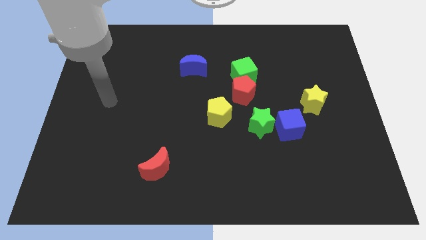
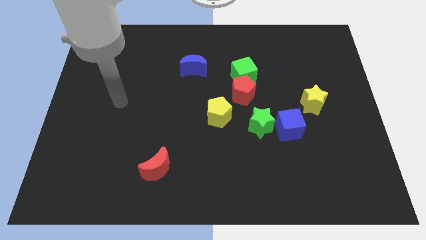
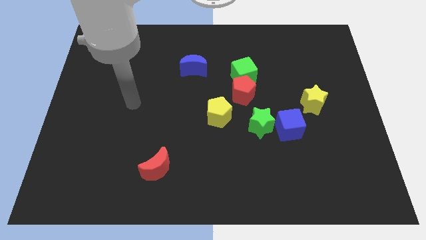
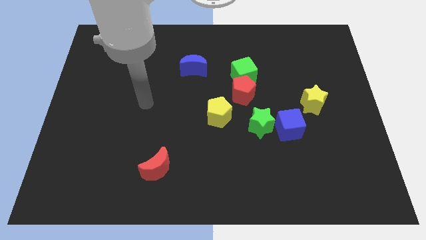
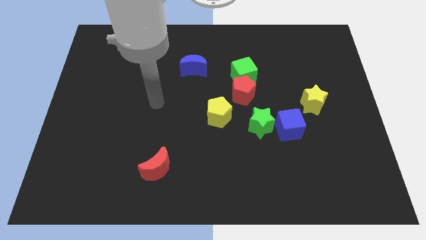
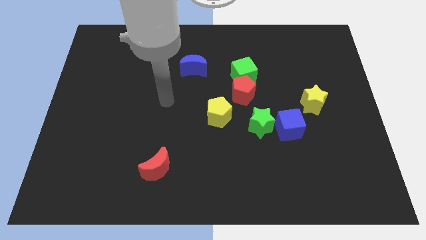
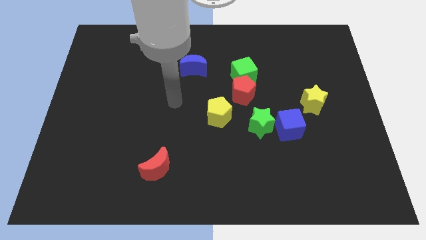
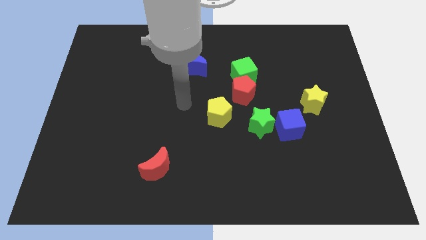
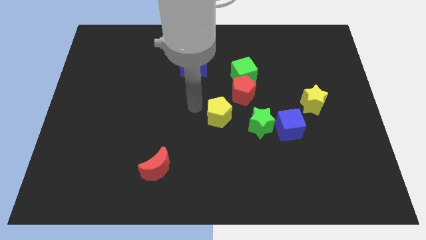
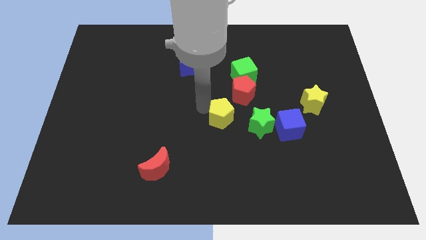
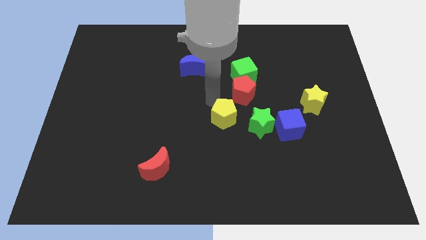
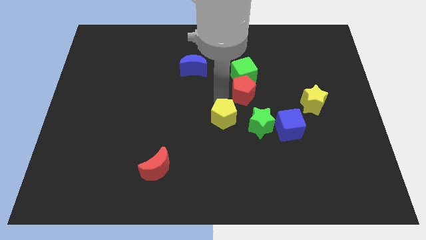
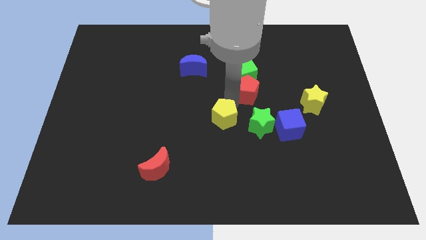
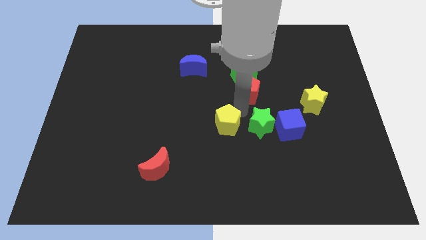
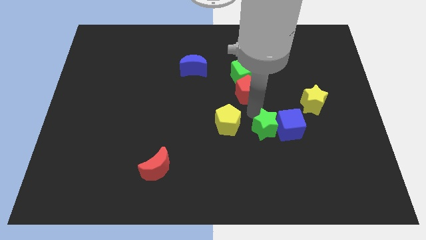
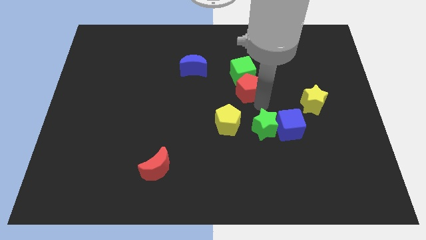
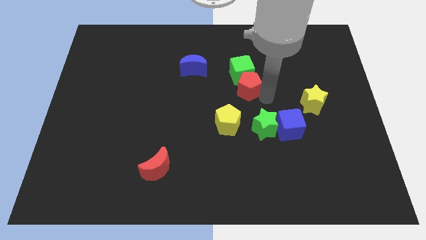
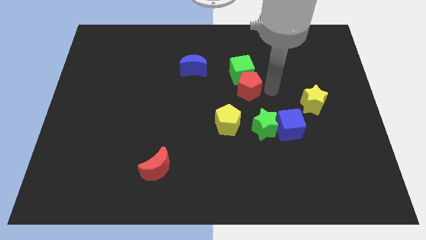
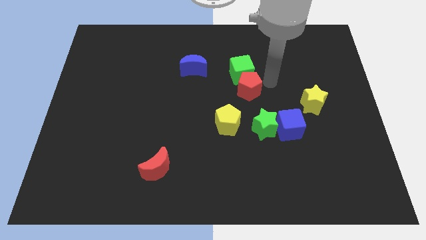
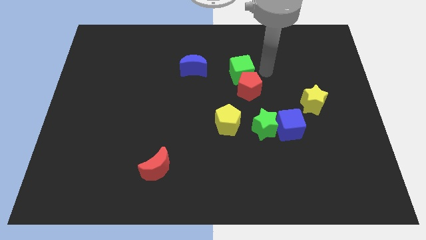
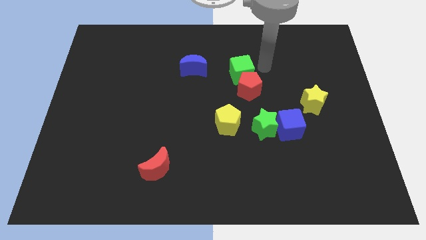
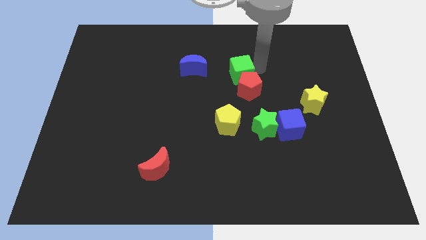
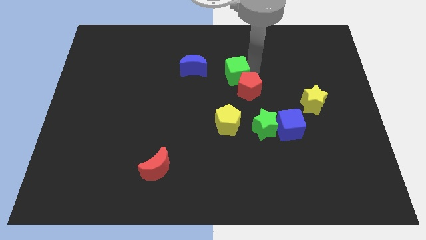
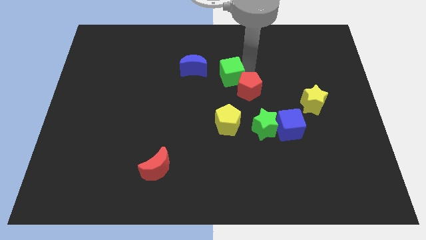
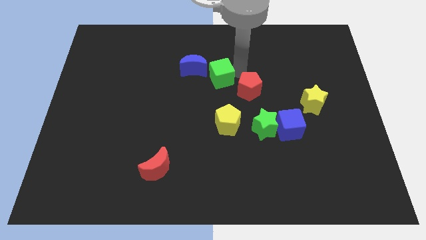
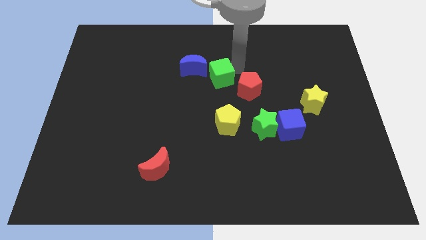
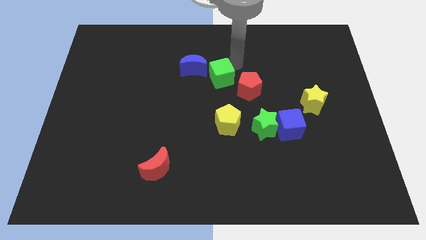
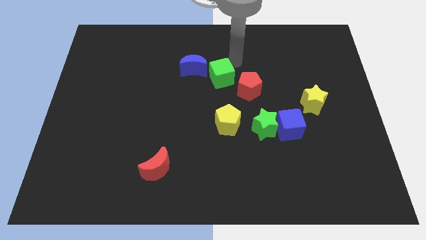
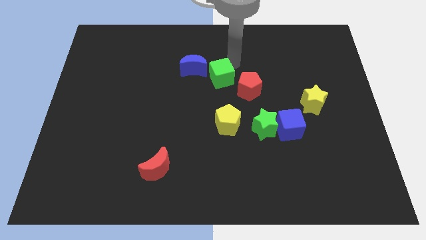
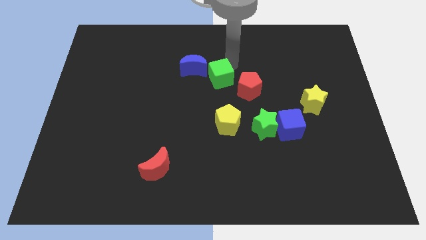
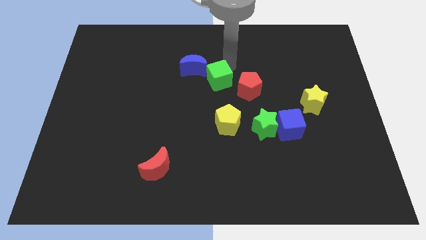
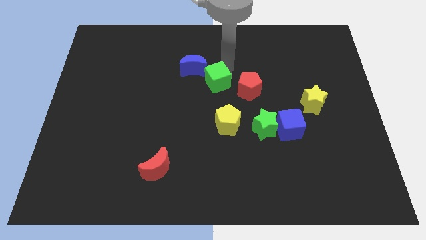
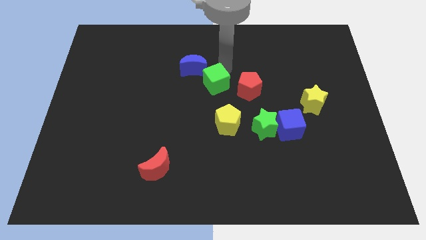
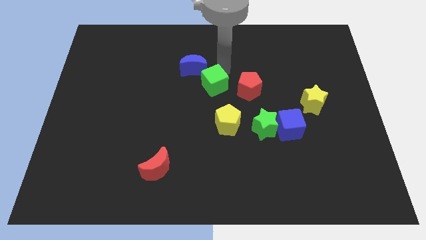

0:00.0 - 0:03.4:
push the green cube diagonally down and left somewhat

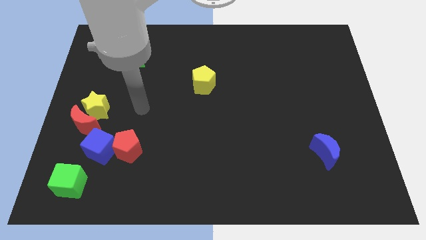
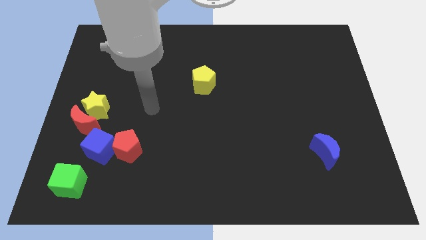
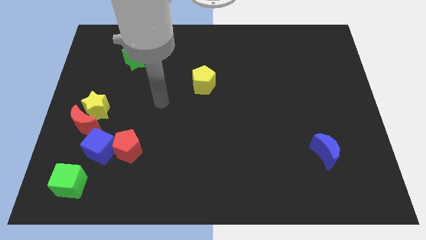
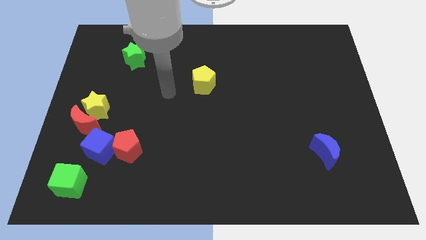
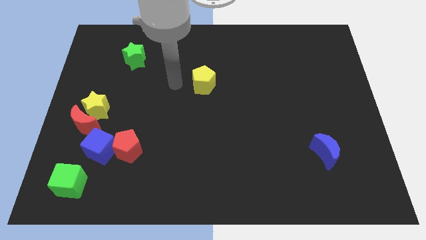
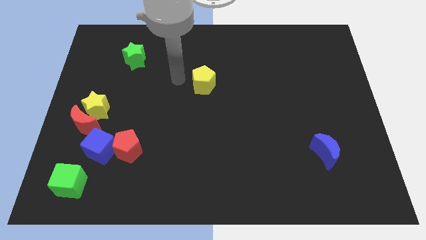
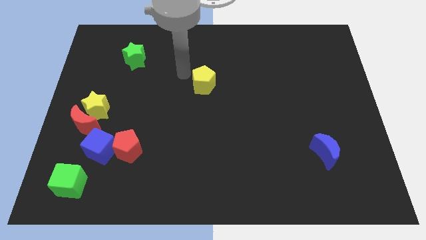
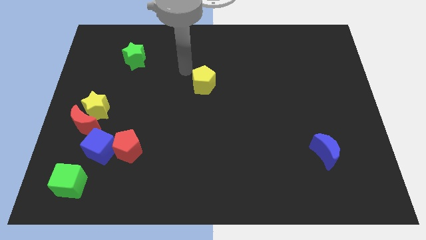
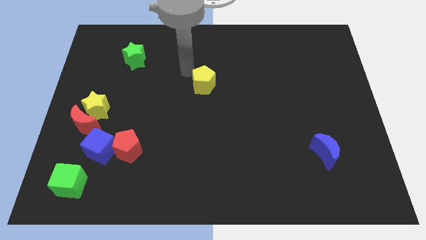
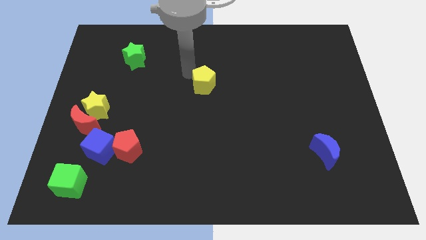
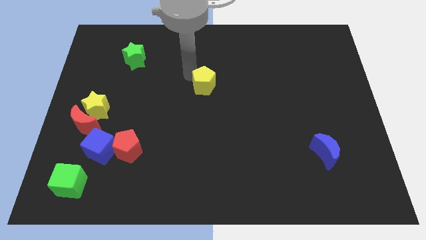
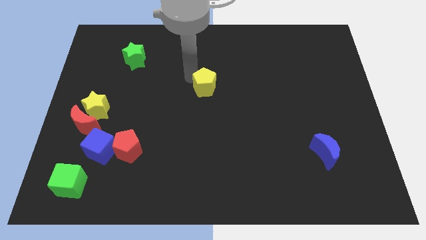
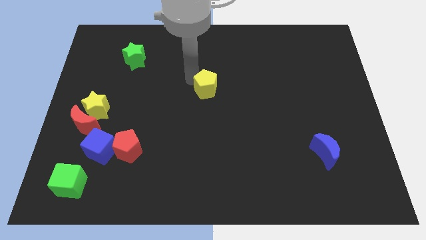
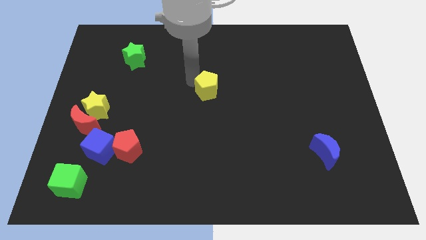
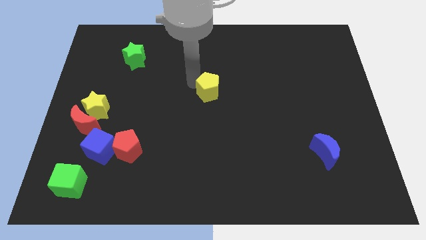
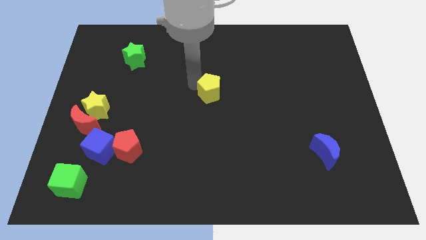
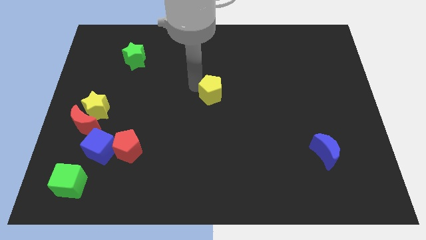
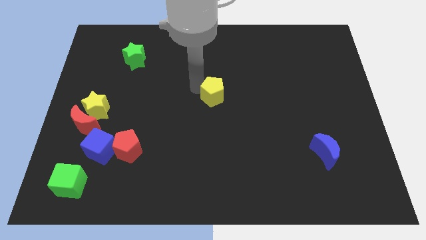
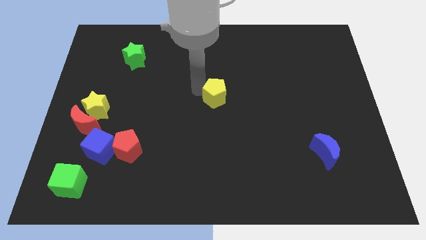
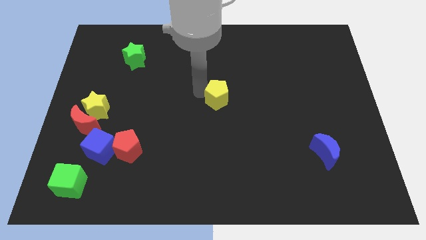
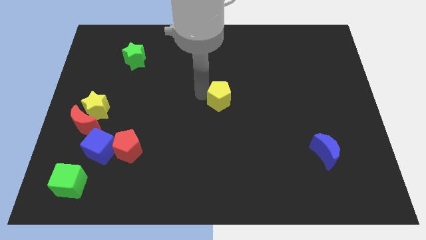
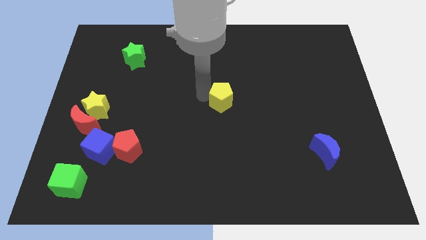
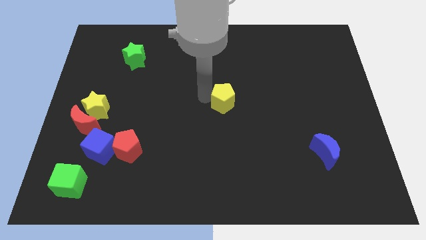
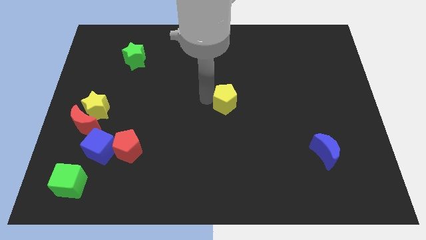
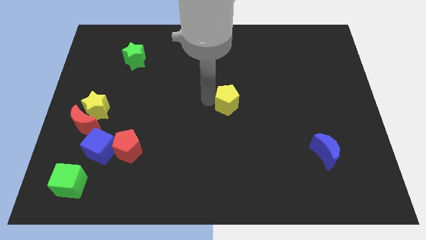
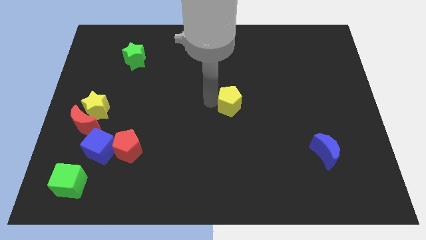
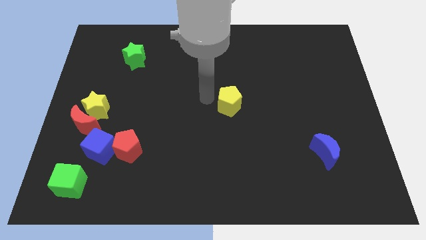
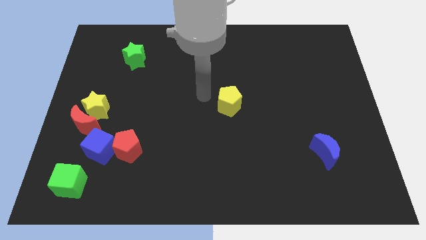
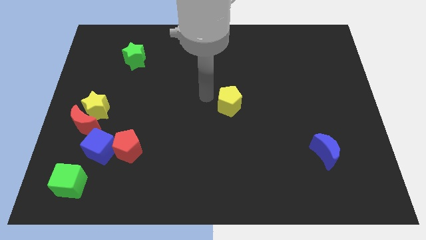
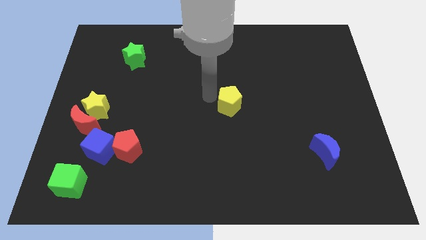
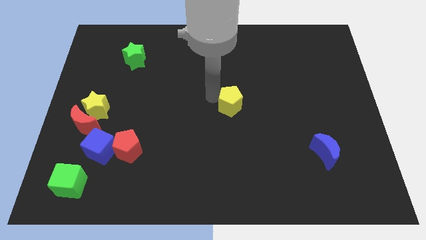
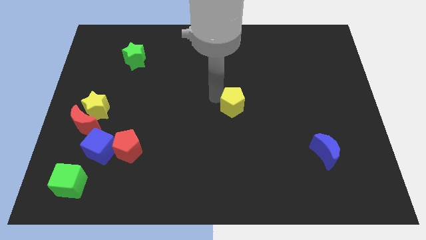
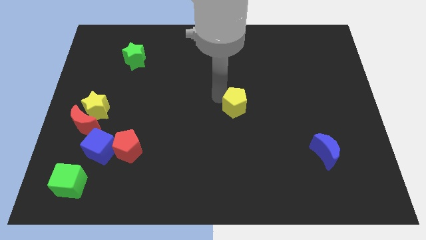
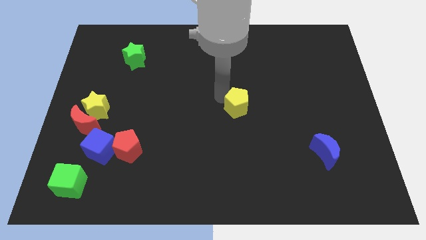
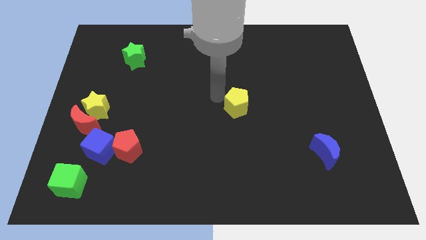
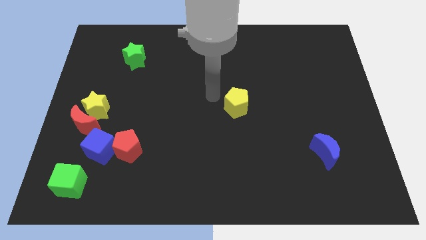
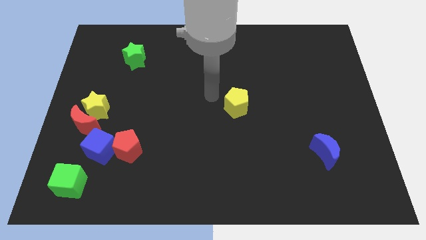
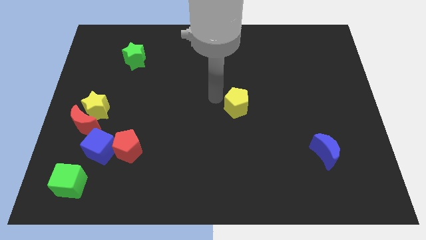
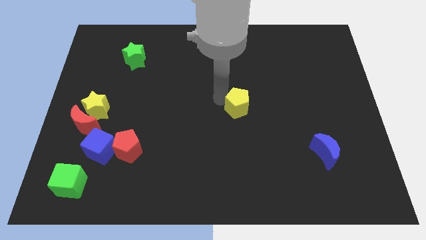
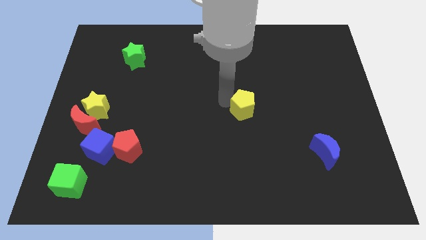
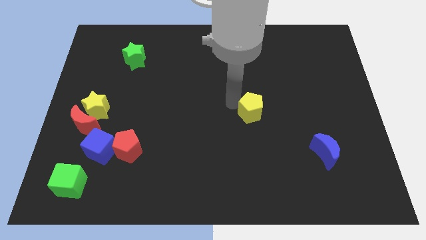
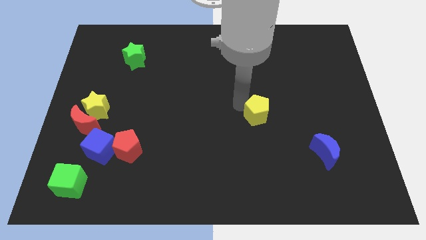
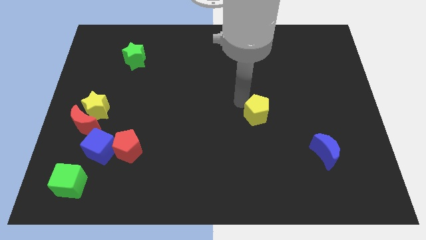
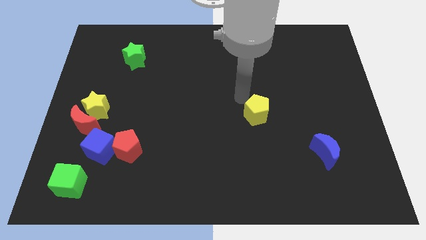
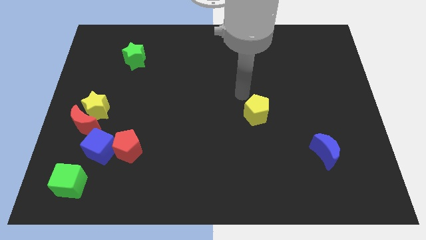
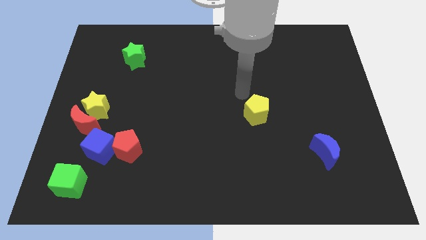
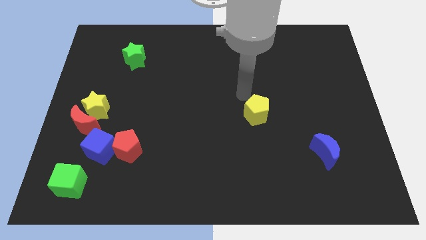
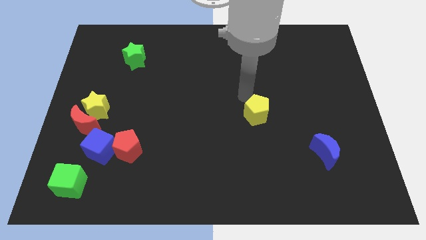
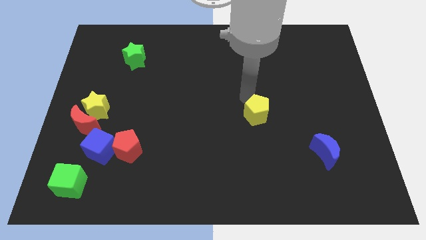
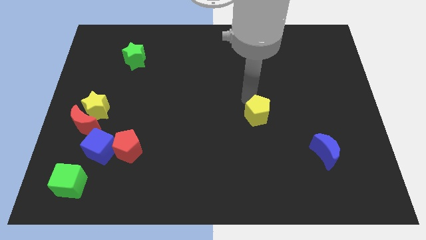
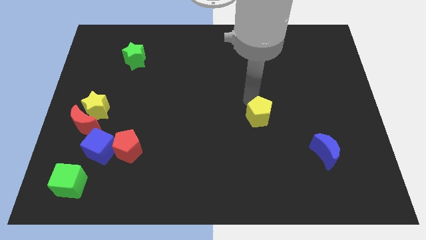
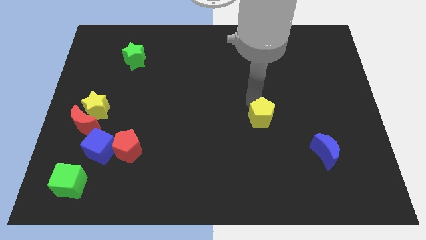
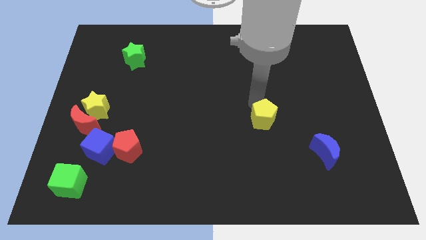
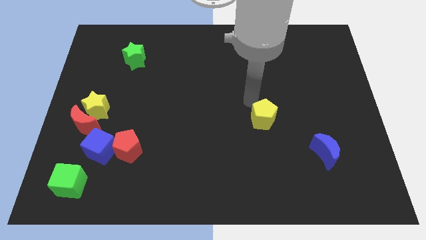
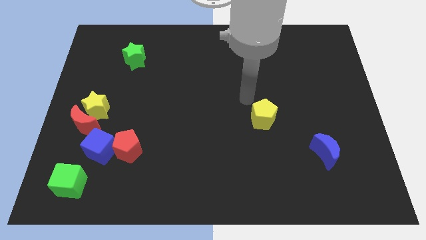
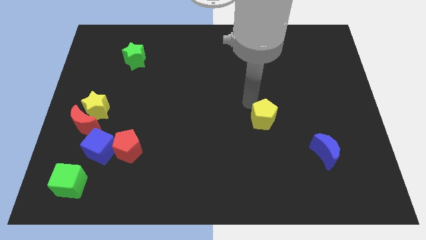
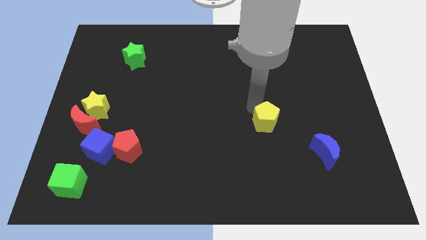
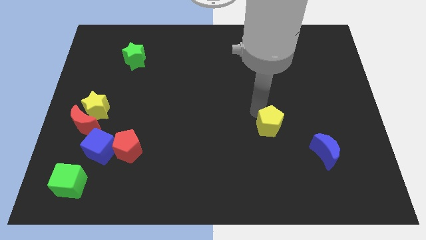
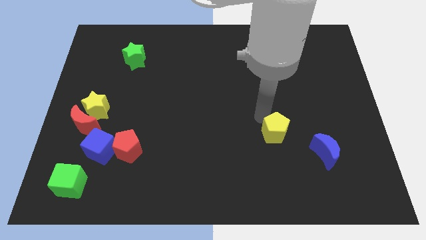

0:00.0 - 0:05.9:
slide the yellow pentagon down and then right
